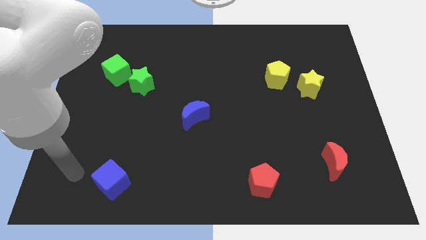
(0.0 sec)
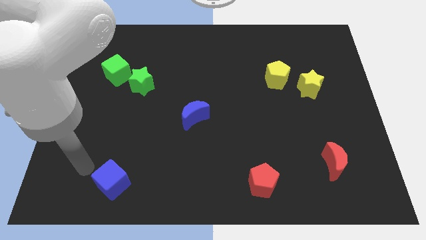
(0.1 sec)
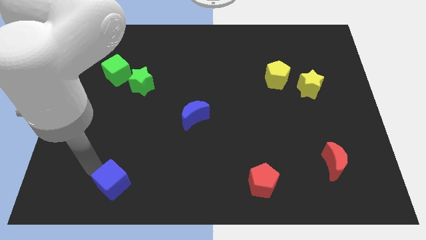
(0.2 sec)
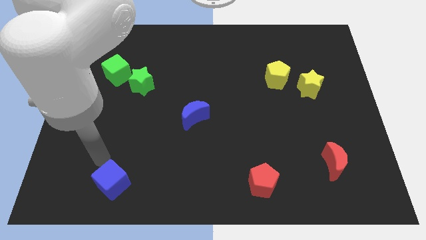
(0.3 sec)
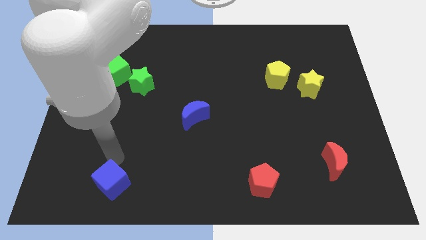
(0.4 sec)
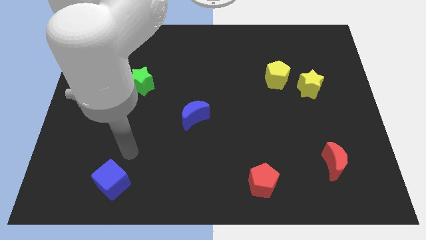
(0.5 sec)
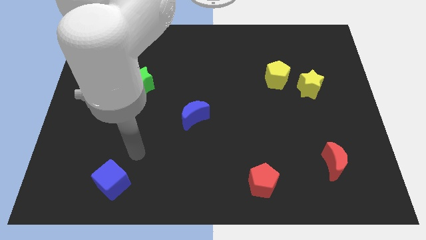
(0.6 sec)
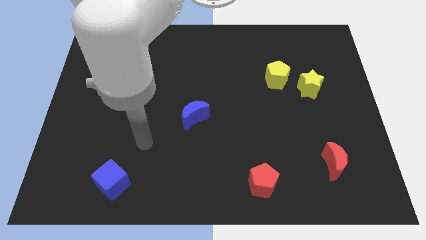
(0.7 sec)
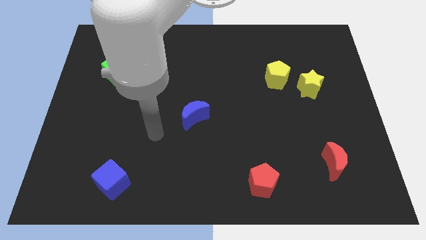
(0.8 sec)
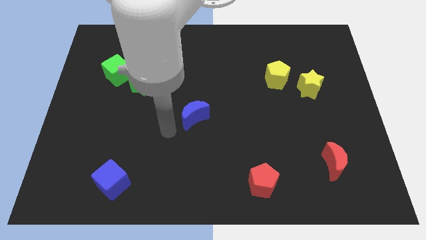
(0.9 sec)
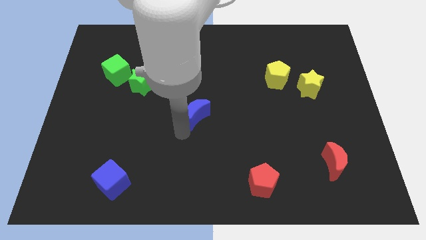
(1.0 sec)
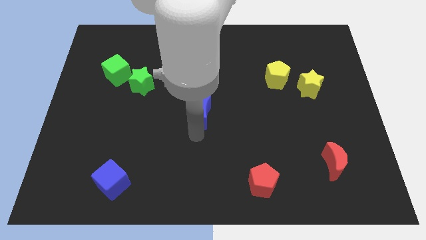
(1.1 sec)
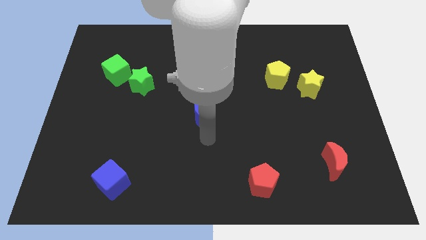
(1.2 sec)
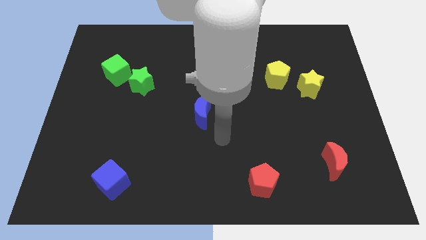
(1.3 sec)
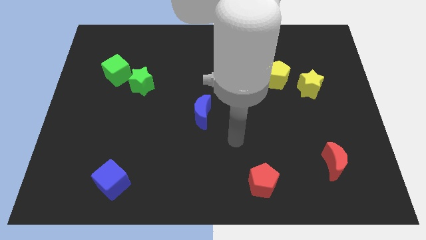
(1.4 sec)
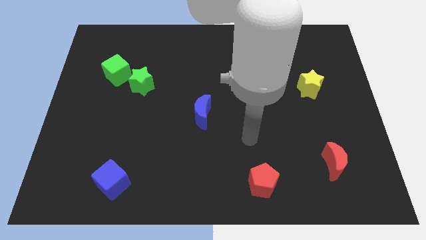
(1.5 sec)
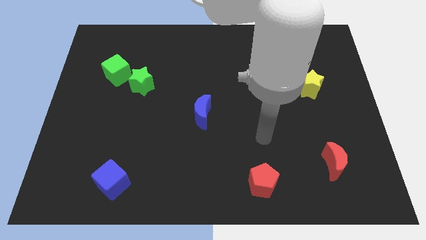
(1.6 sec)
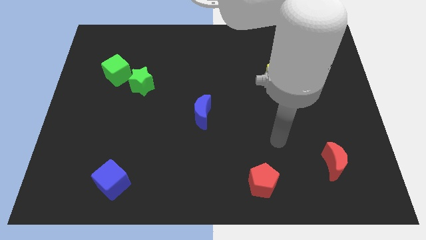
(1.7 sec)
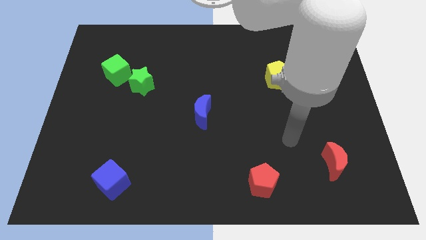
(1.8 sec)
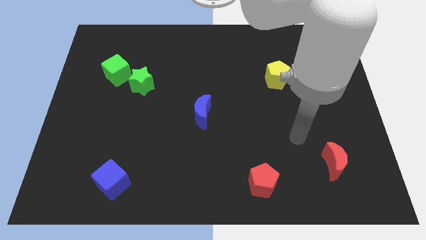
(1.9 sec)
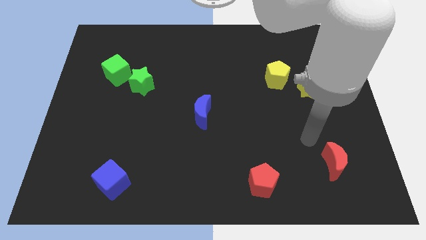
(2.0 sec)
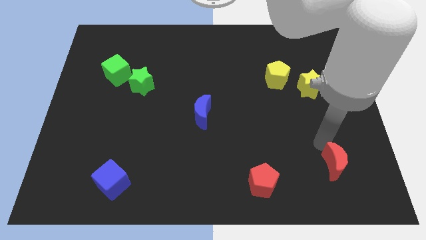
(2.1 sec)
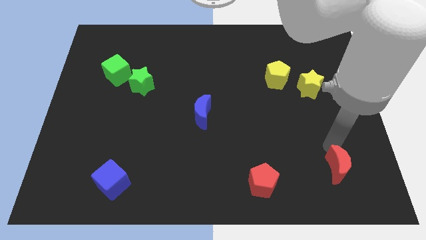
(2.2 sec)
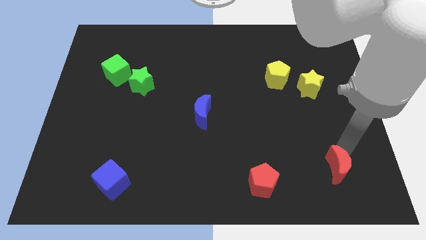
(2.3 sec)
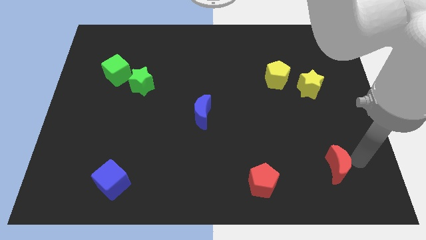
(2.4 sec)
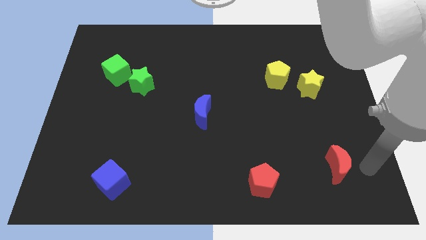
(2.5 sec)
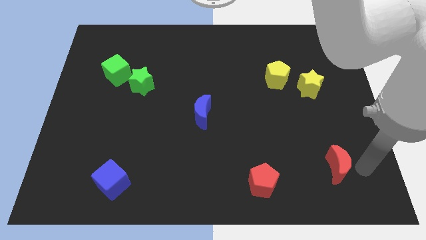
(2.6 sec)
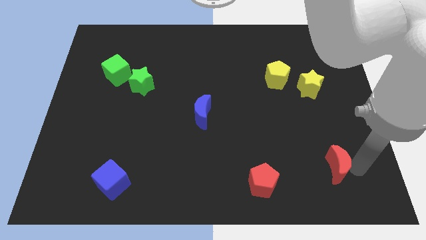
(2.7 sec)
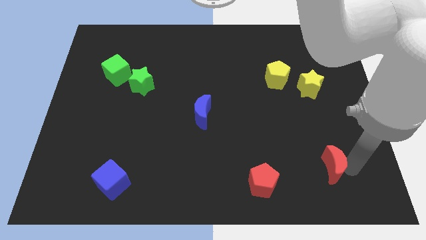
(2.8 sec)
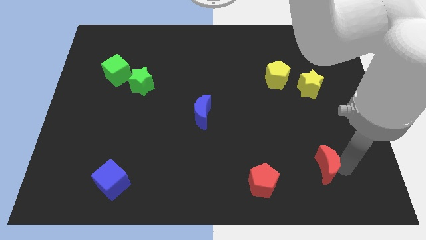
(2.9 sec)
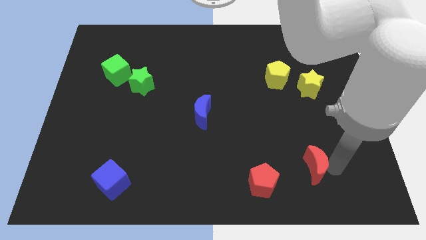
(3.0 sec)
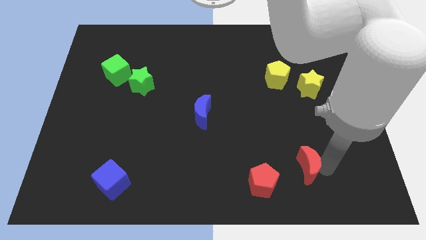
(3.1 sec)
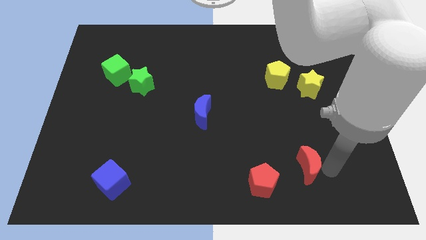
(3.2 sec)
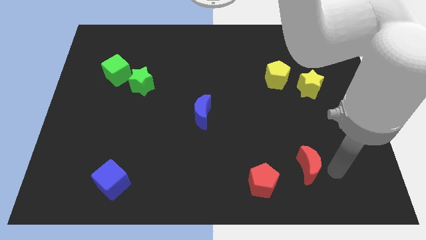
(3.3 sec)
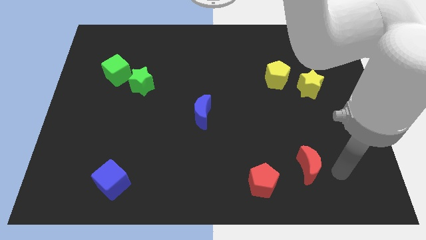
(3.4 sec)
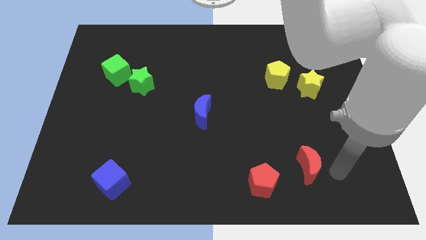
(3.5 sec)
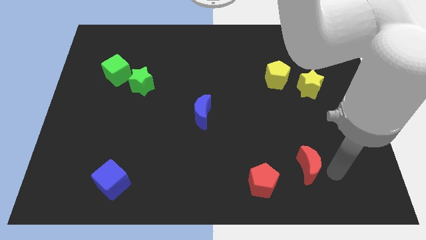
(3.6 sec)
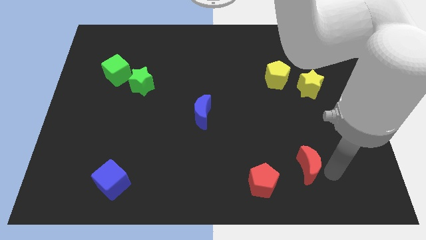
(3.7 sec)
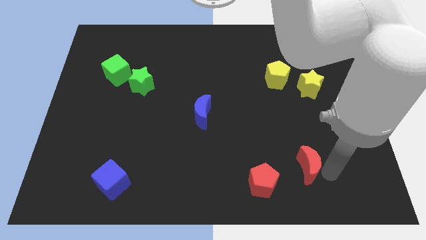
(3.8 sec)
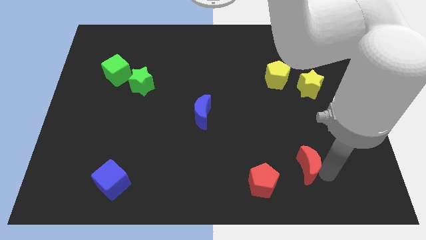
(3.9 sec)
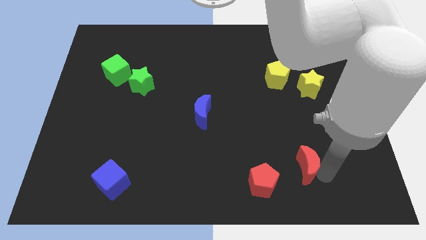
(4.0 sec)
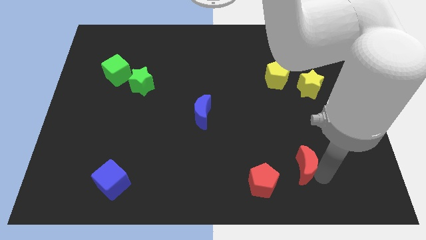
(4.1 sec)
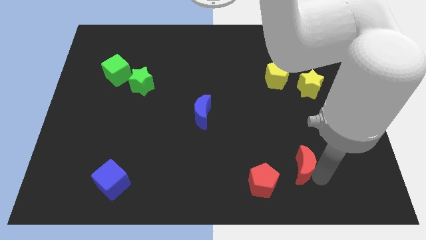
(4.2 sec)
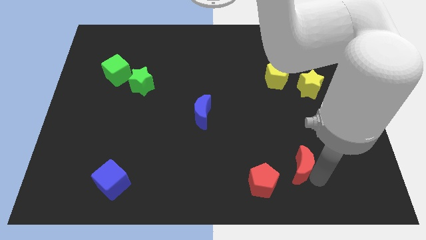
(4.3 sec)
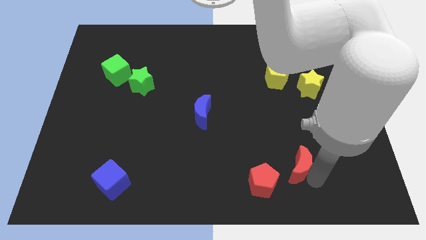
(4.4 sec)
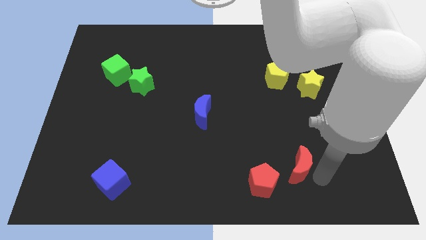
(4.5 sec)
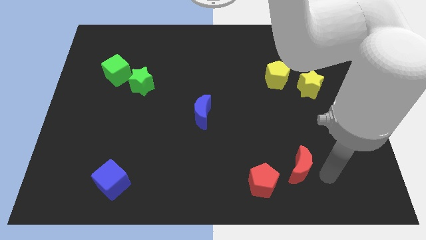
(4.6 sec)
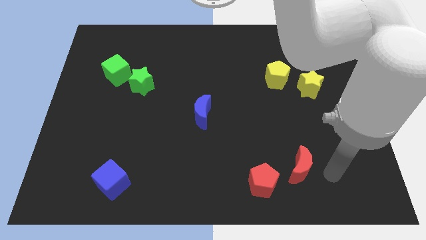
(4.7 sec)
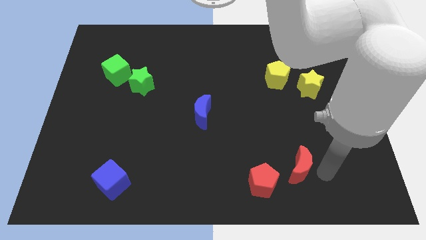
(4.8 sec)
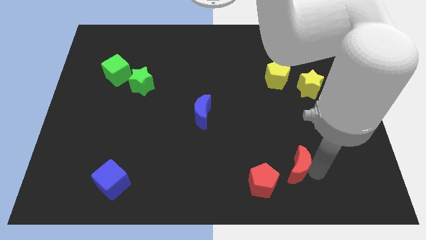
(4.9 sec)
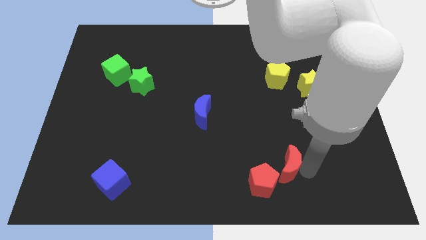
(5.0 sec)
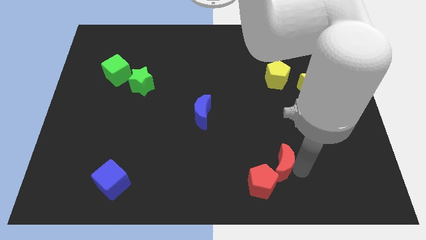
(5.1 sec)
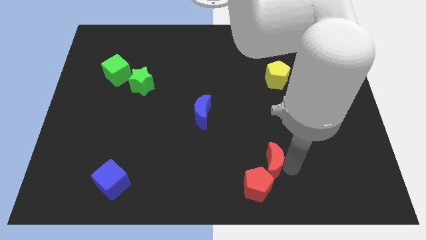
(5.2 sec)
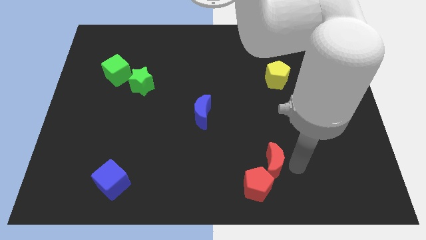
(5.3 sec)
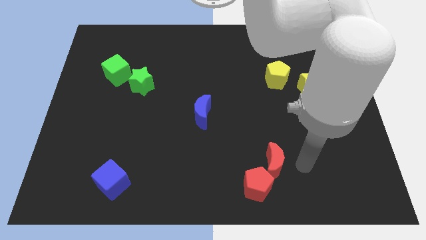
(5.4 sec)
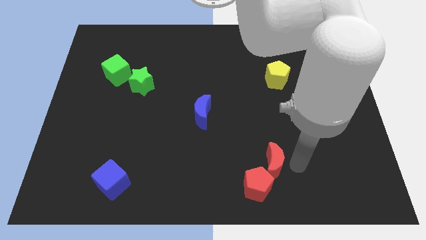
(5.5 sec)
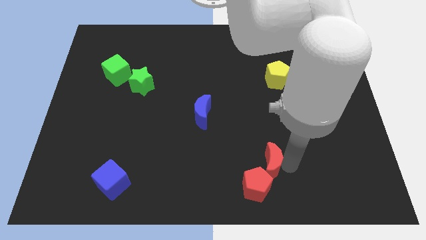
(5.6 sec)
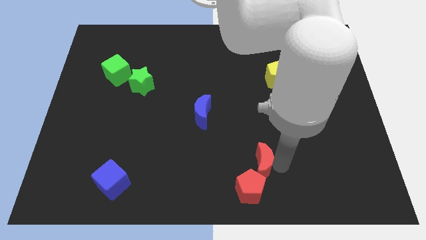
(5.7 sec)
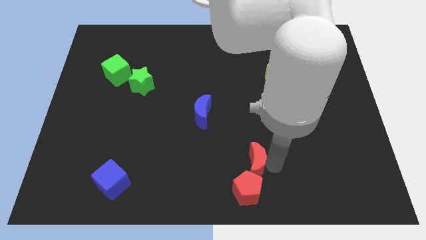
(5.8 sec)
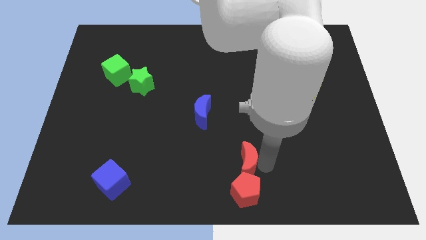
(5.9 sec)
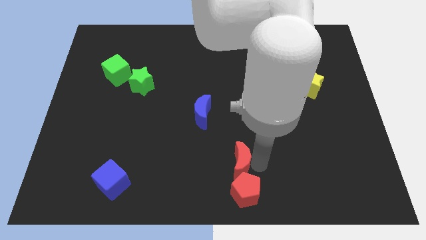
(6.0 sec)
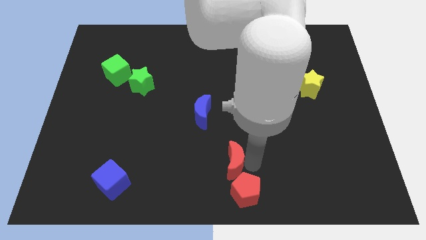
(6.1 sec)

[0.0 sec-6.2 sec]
push the red moon left

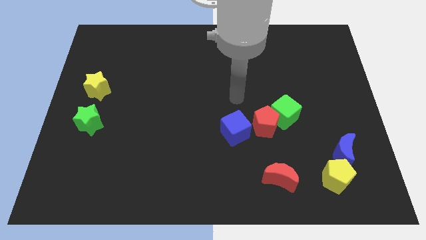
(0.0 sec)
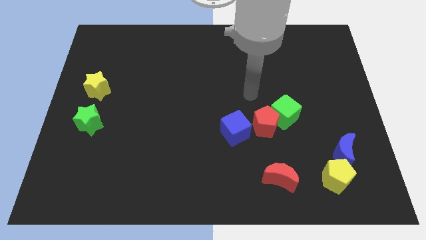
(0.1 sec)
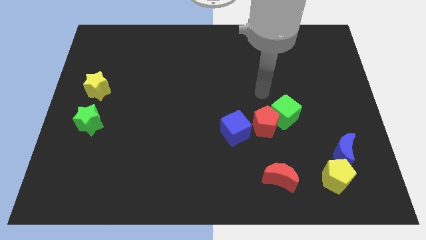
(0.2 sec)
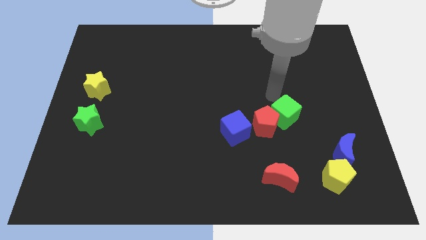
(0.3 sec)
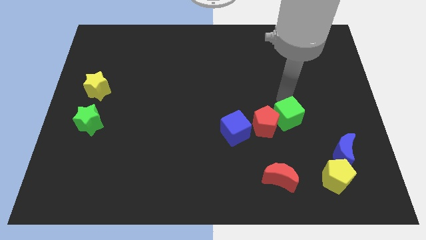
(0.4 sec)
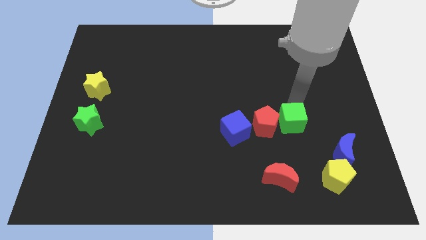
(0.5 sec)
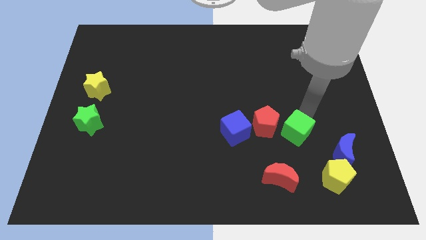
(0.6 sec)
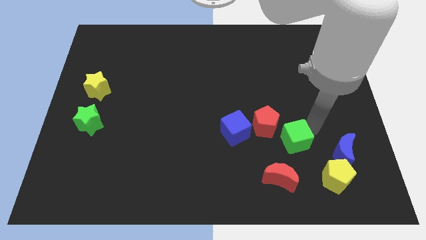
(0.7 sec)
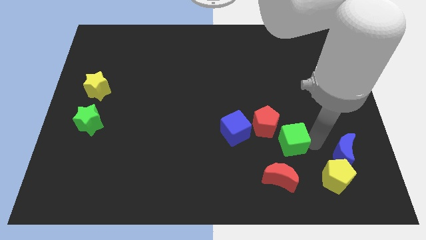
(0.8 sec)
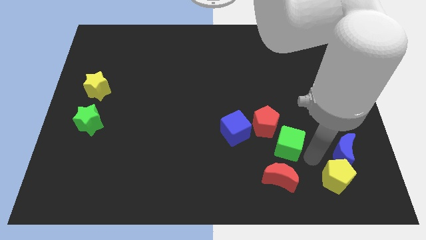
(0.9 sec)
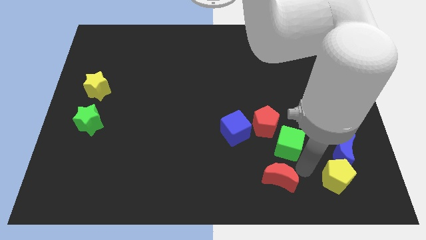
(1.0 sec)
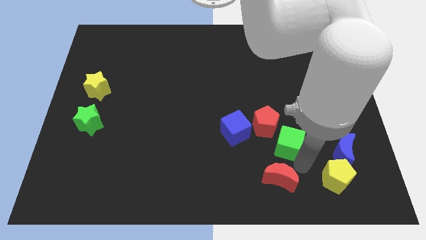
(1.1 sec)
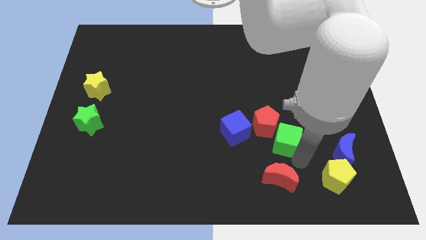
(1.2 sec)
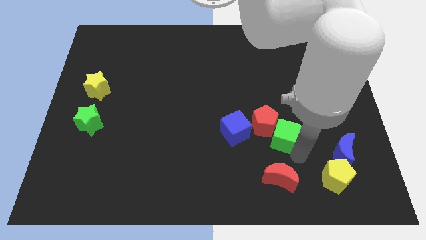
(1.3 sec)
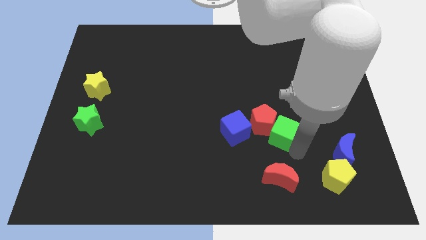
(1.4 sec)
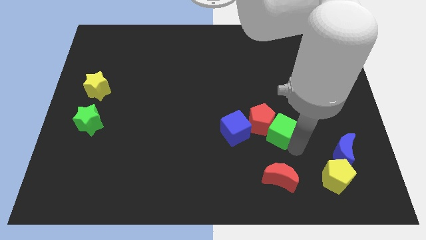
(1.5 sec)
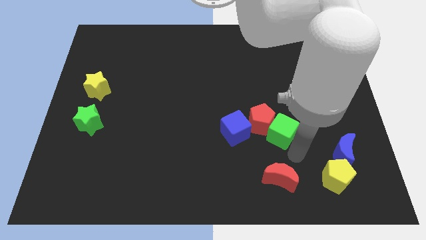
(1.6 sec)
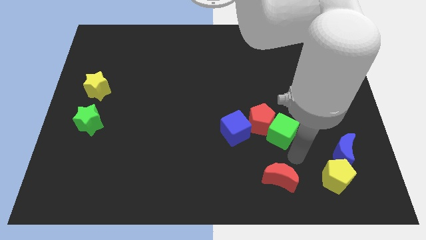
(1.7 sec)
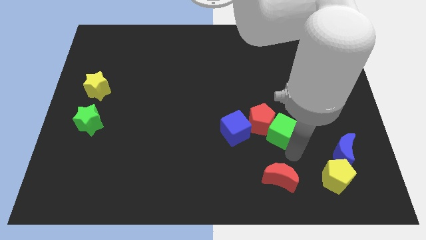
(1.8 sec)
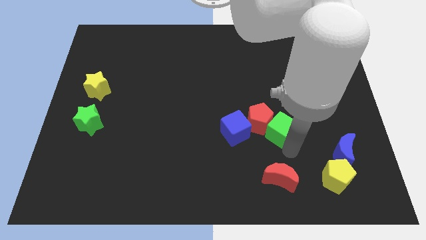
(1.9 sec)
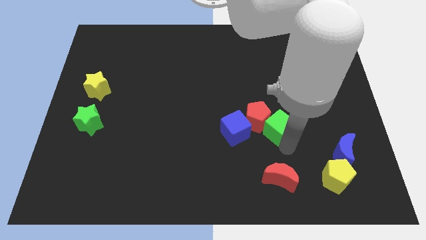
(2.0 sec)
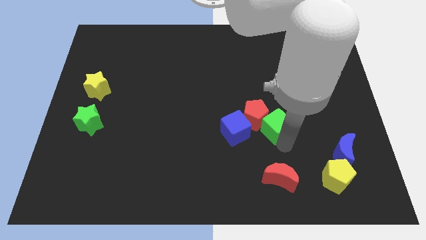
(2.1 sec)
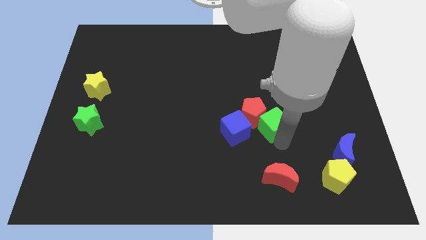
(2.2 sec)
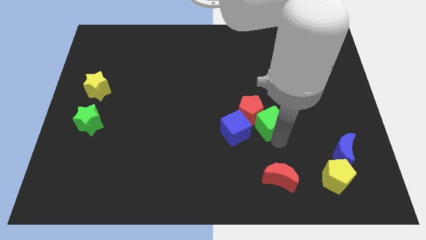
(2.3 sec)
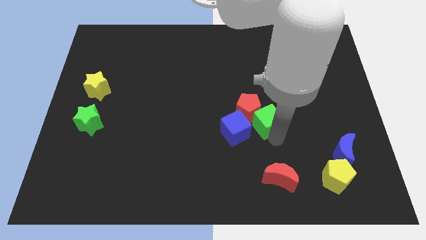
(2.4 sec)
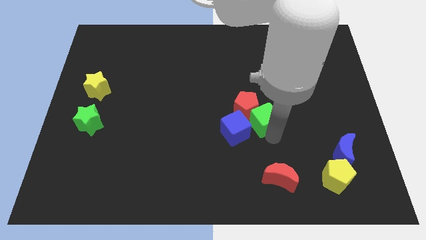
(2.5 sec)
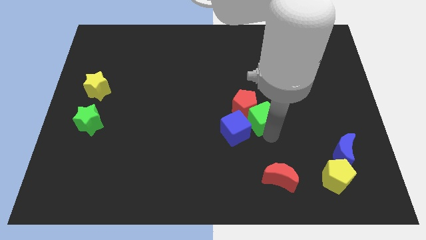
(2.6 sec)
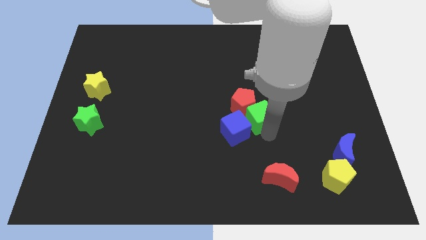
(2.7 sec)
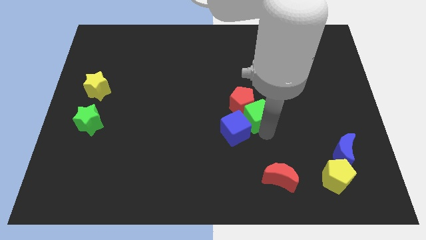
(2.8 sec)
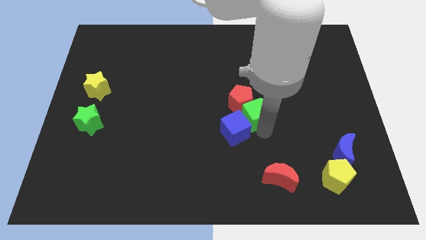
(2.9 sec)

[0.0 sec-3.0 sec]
slightly slide the green cube to the left
